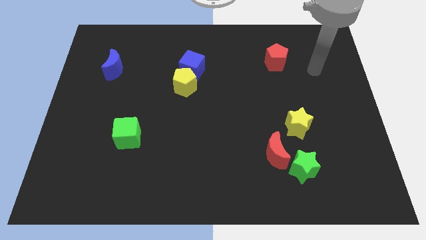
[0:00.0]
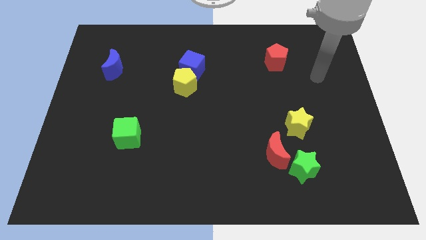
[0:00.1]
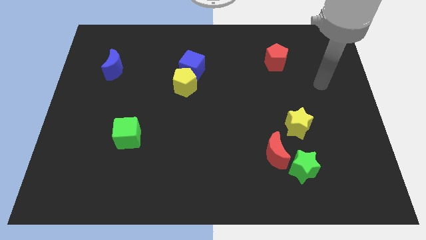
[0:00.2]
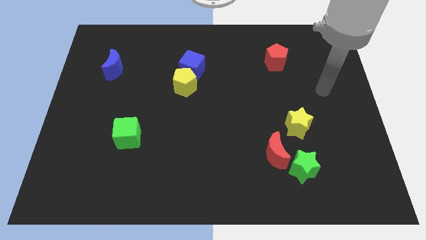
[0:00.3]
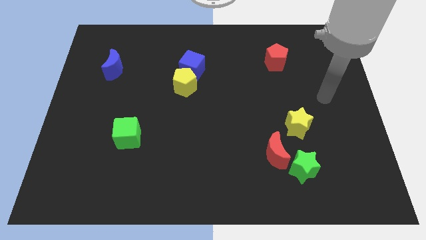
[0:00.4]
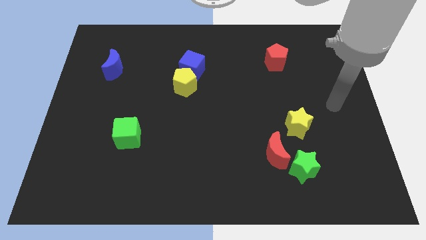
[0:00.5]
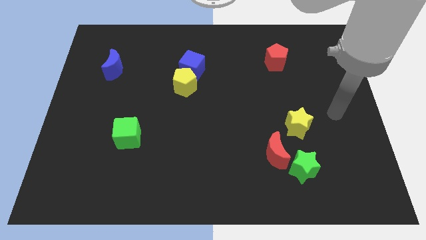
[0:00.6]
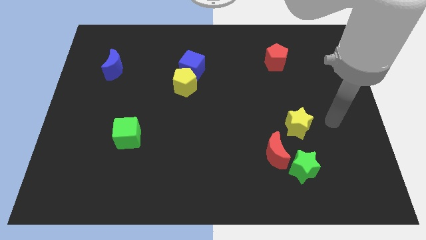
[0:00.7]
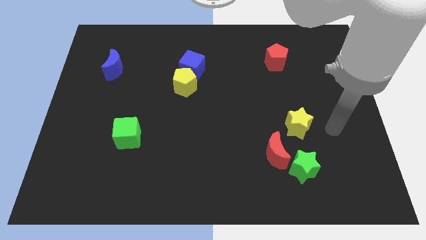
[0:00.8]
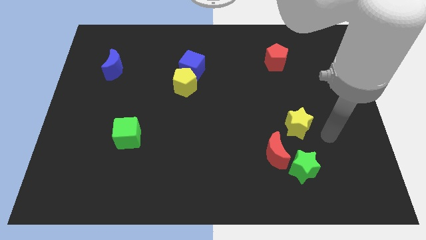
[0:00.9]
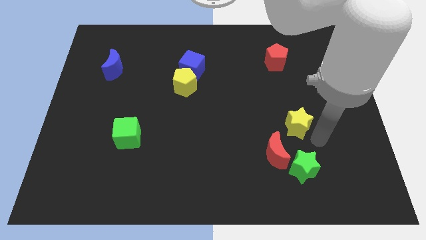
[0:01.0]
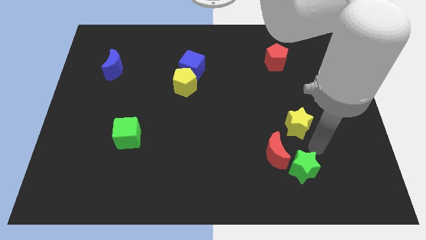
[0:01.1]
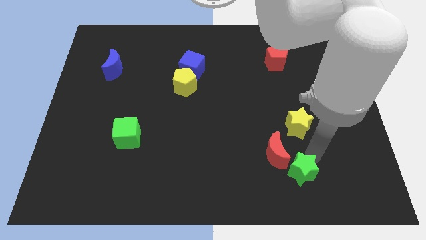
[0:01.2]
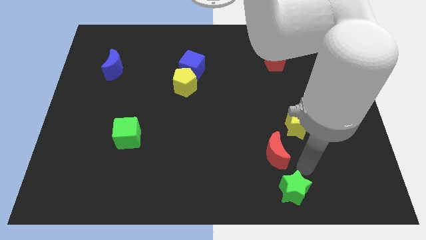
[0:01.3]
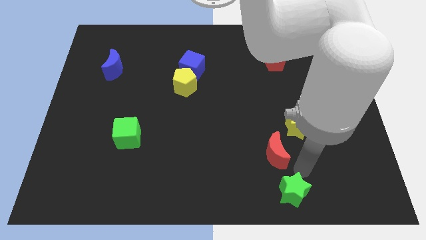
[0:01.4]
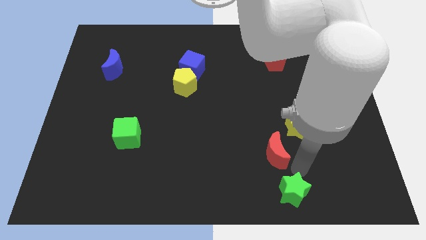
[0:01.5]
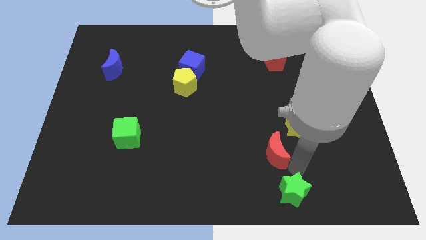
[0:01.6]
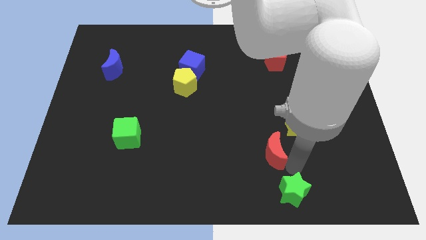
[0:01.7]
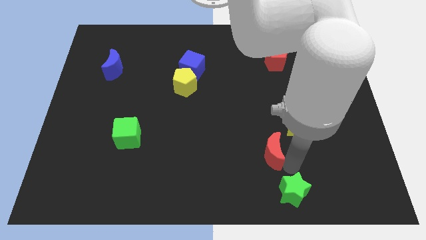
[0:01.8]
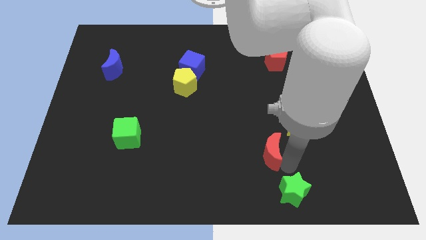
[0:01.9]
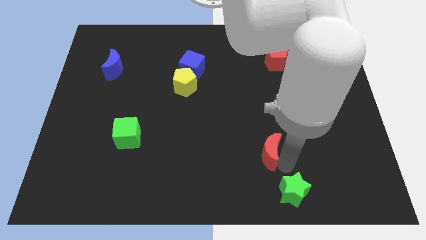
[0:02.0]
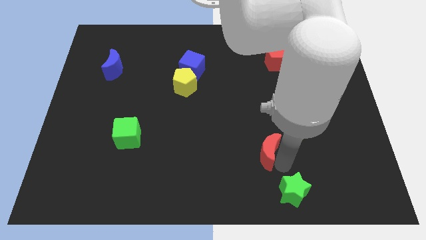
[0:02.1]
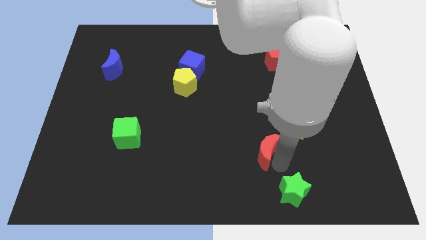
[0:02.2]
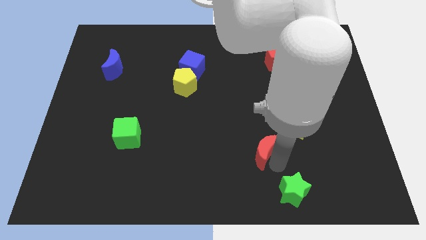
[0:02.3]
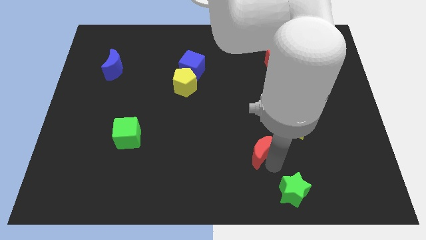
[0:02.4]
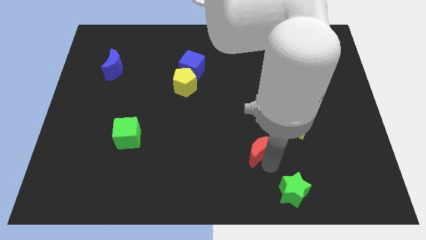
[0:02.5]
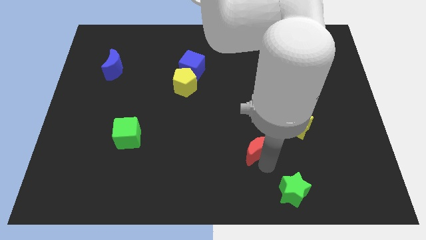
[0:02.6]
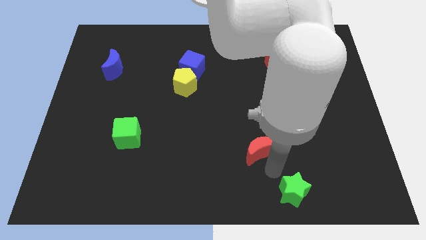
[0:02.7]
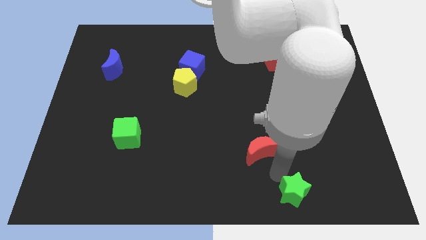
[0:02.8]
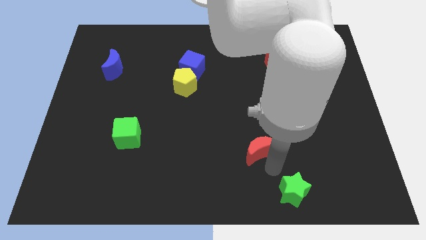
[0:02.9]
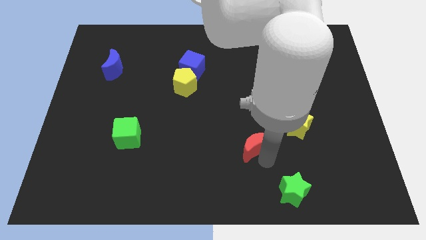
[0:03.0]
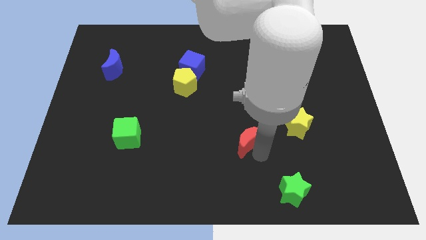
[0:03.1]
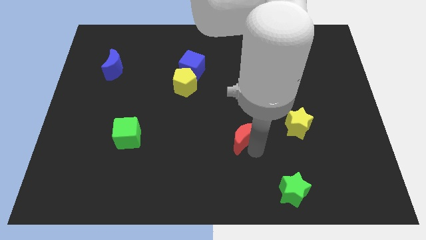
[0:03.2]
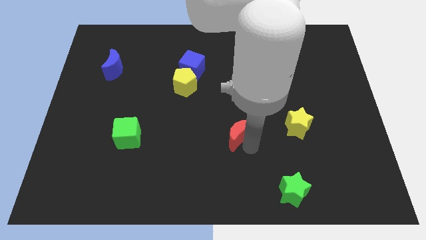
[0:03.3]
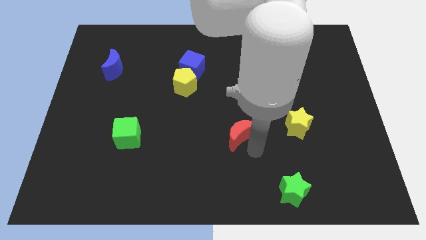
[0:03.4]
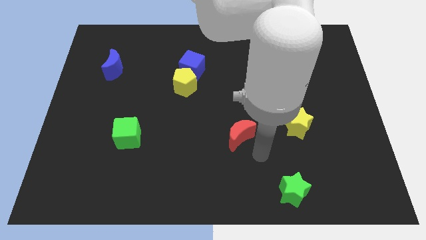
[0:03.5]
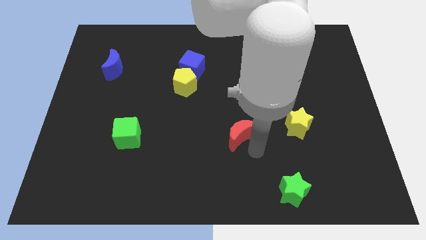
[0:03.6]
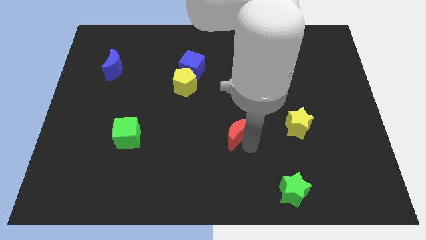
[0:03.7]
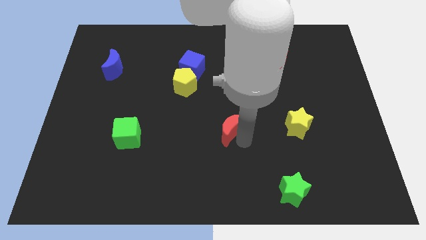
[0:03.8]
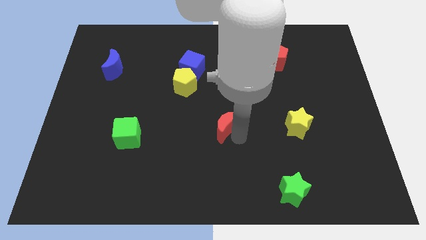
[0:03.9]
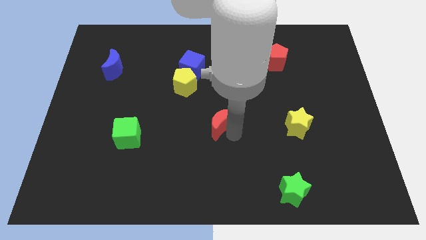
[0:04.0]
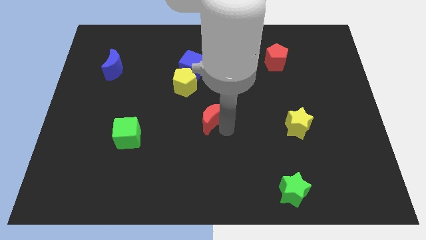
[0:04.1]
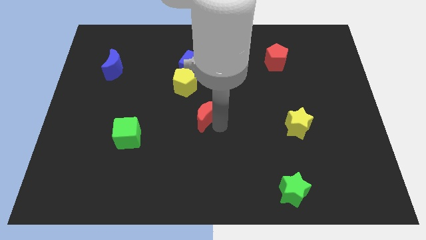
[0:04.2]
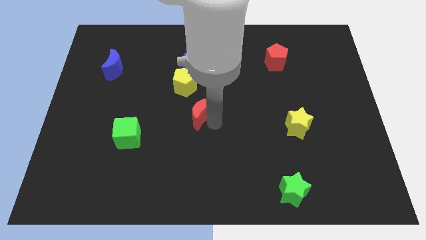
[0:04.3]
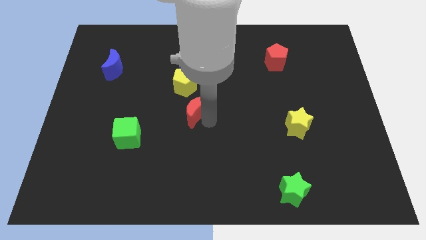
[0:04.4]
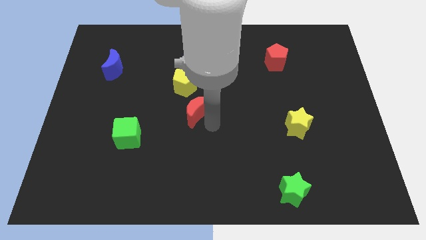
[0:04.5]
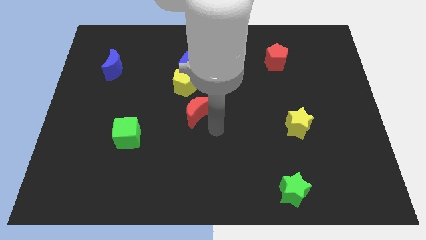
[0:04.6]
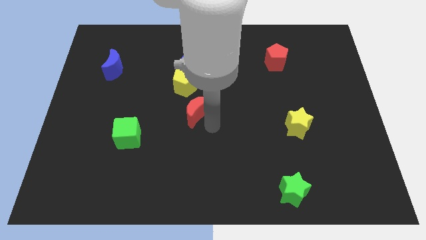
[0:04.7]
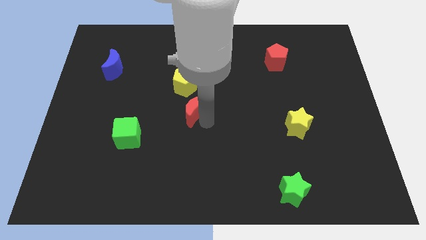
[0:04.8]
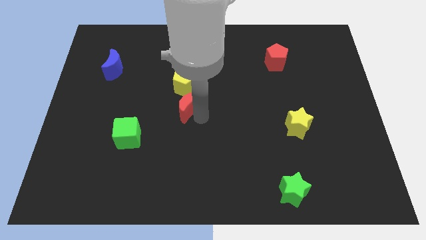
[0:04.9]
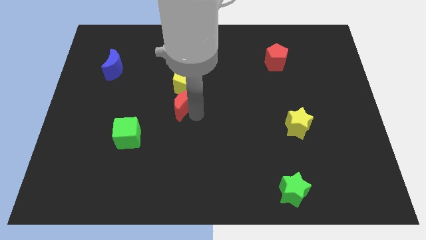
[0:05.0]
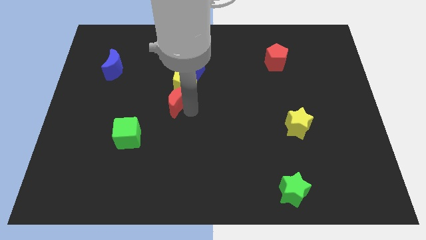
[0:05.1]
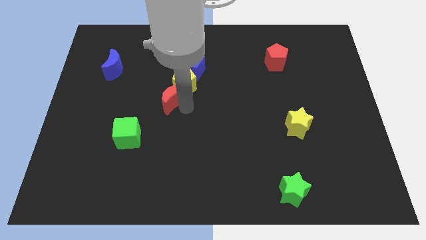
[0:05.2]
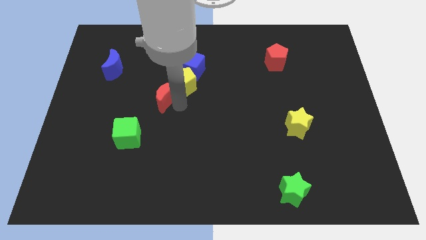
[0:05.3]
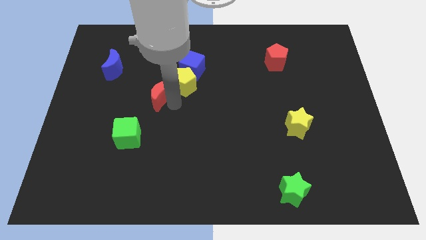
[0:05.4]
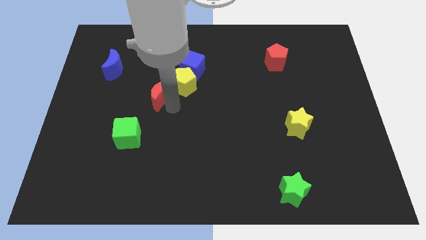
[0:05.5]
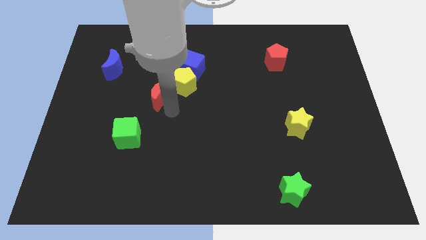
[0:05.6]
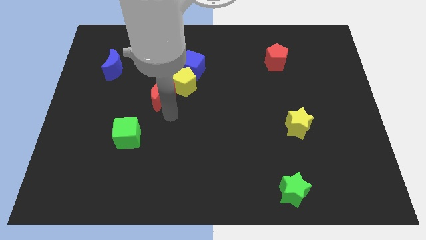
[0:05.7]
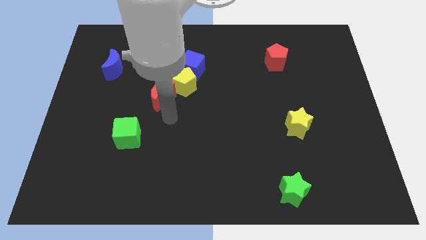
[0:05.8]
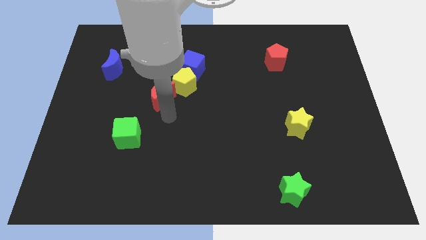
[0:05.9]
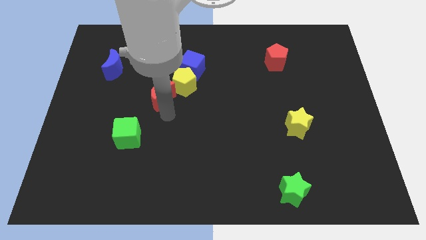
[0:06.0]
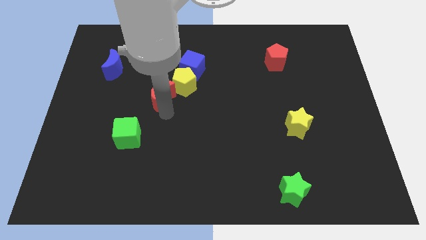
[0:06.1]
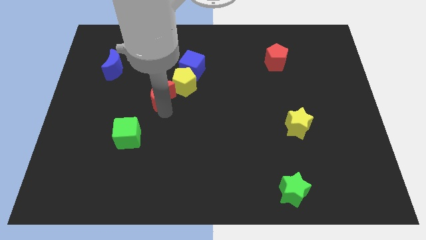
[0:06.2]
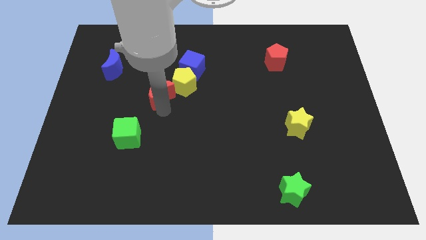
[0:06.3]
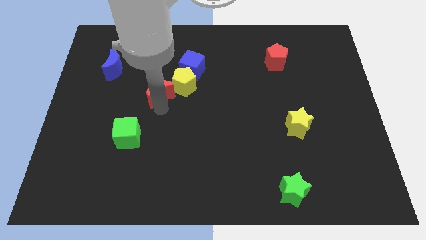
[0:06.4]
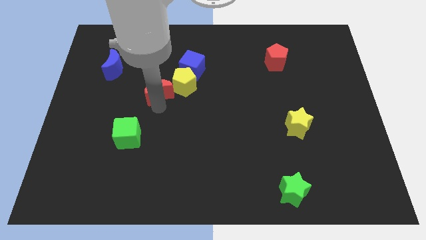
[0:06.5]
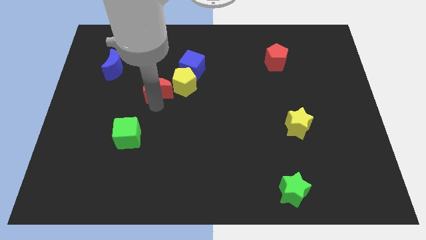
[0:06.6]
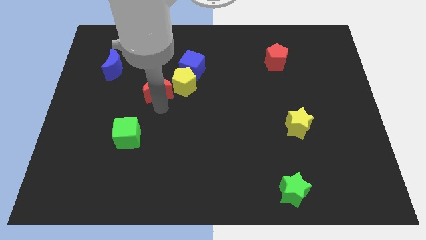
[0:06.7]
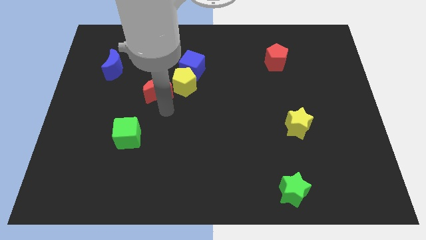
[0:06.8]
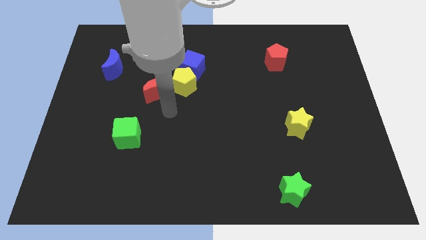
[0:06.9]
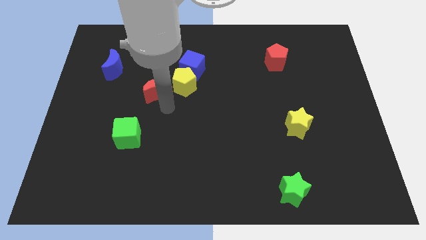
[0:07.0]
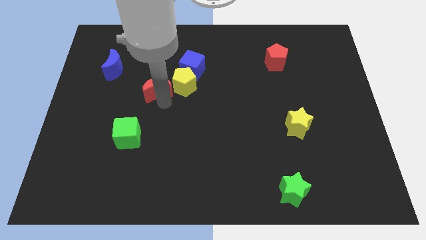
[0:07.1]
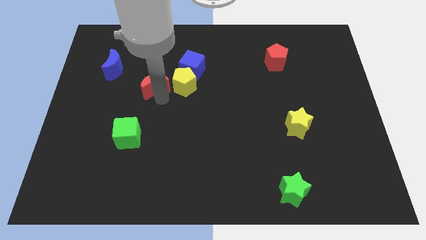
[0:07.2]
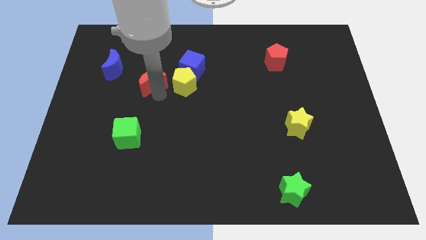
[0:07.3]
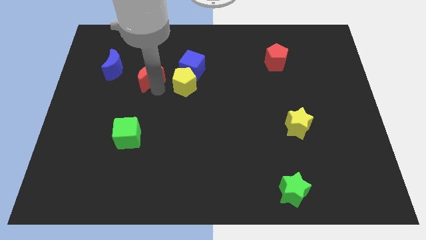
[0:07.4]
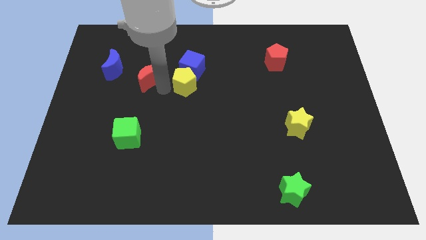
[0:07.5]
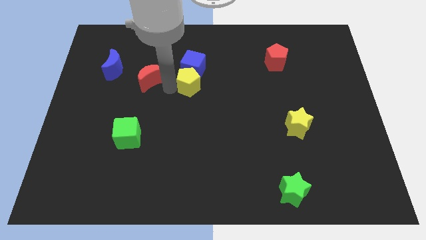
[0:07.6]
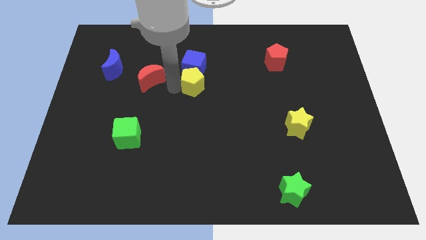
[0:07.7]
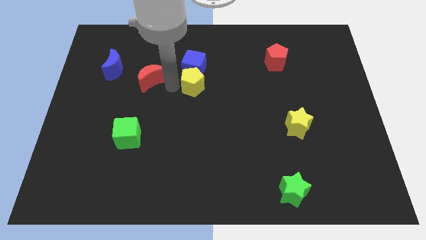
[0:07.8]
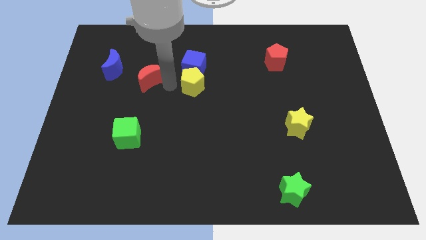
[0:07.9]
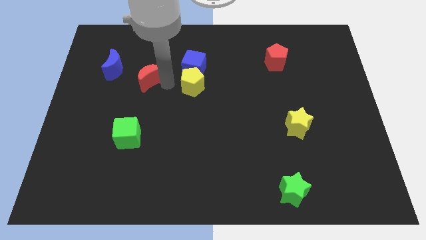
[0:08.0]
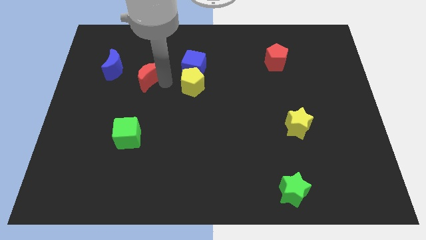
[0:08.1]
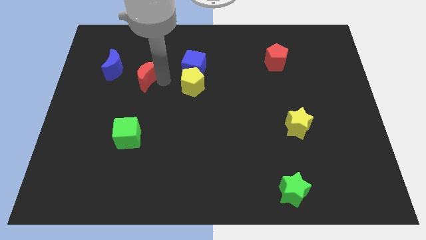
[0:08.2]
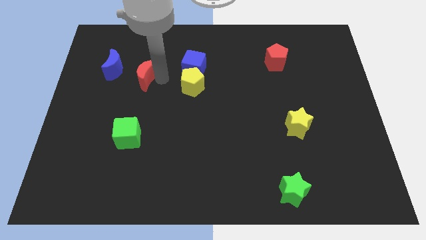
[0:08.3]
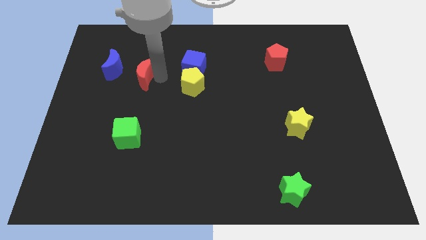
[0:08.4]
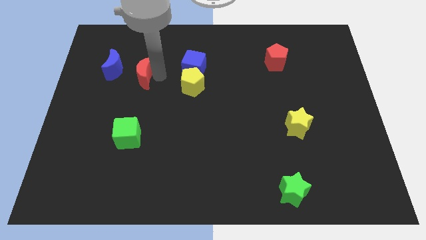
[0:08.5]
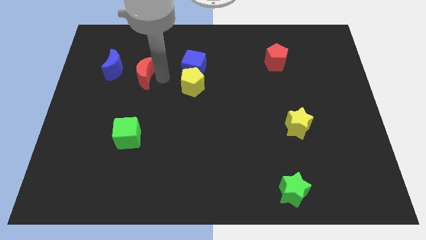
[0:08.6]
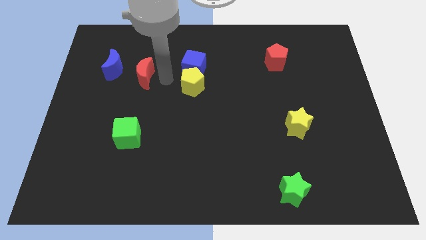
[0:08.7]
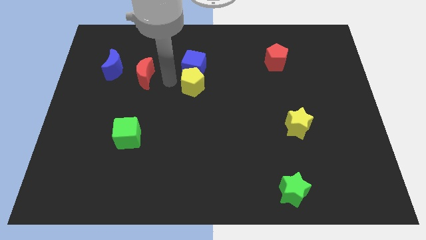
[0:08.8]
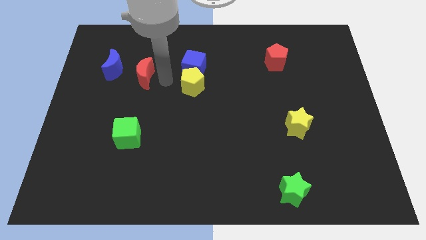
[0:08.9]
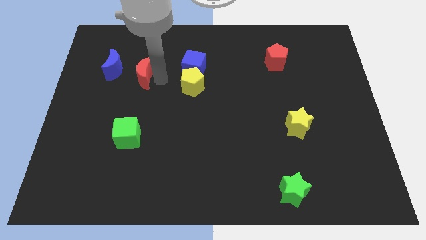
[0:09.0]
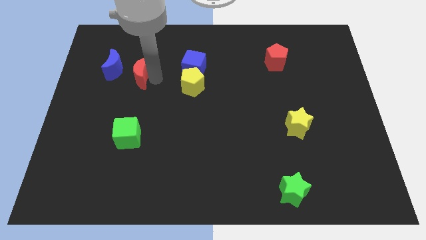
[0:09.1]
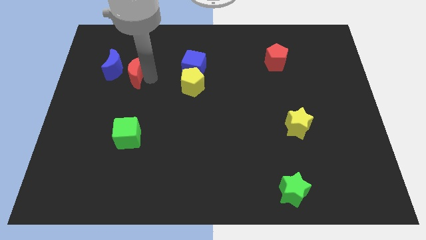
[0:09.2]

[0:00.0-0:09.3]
push the red moon next to the blue moon
